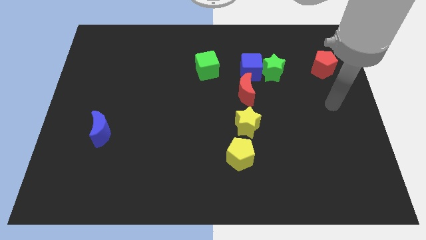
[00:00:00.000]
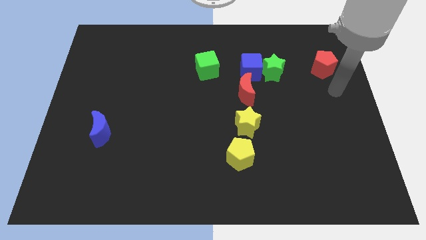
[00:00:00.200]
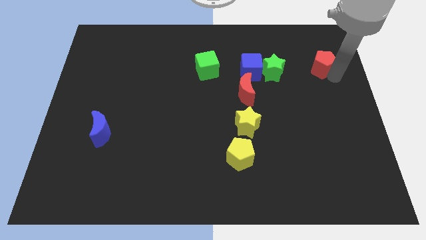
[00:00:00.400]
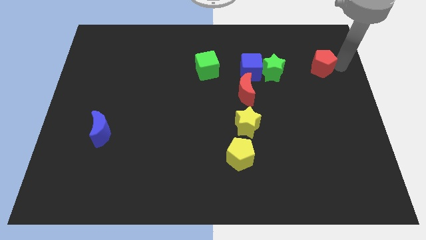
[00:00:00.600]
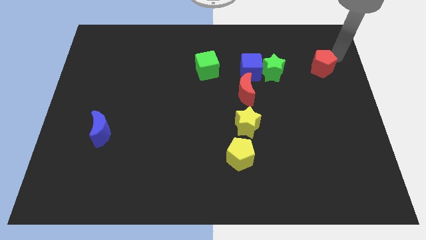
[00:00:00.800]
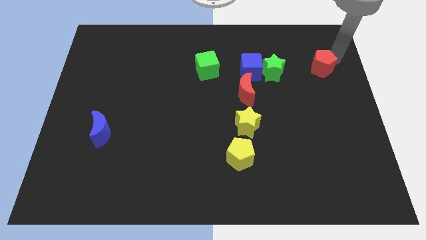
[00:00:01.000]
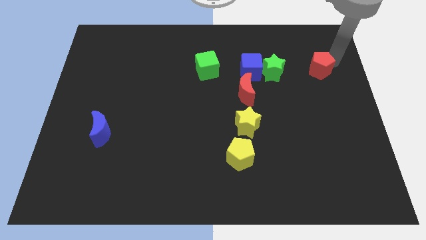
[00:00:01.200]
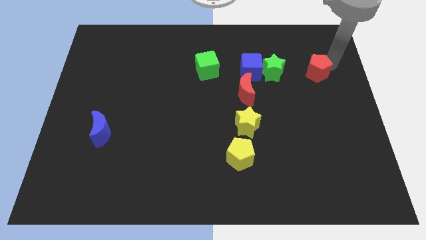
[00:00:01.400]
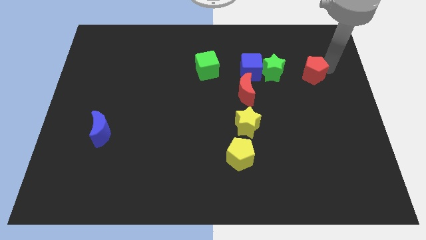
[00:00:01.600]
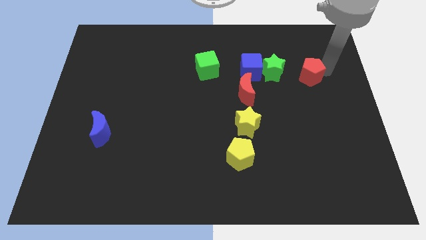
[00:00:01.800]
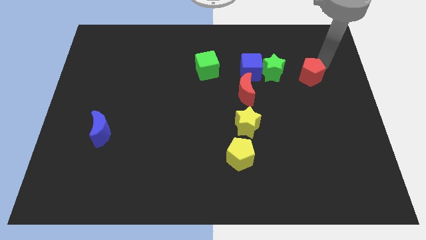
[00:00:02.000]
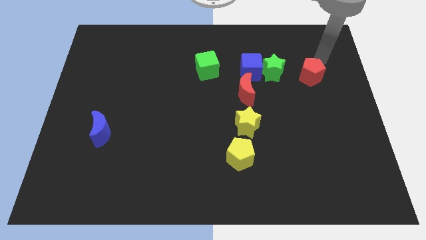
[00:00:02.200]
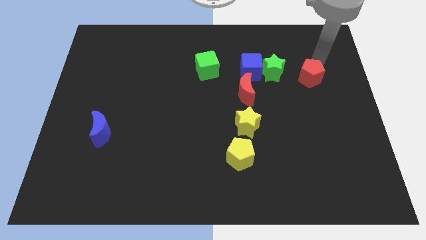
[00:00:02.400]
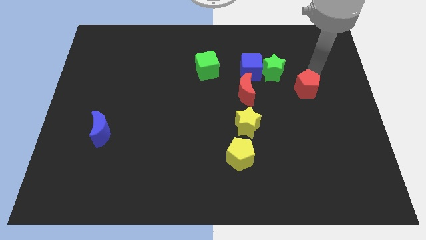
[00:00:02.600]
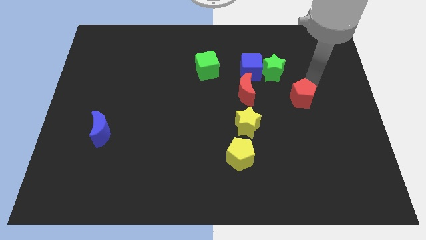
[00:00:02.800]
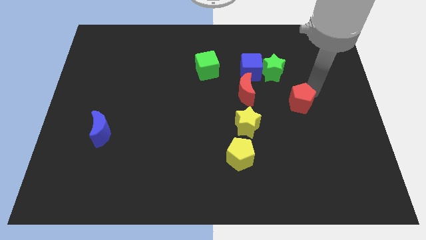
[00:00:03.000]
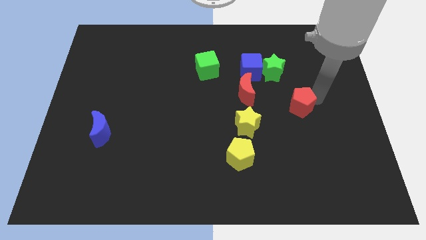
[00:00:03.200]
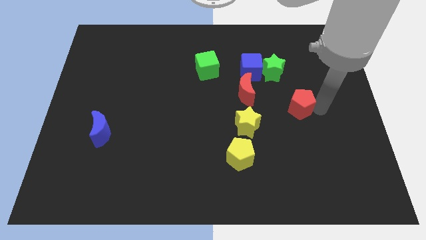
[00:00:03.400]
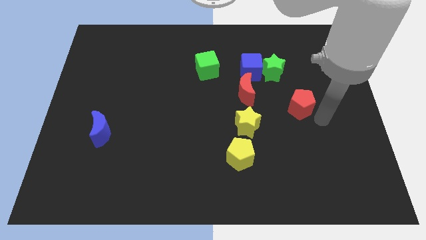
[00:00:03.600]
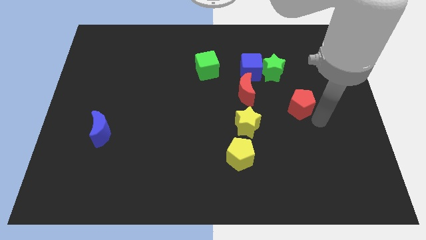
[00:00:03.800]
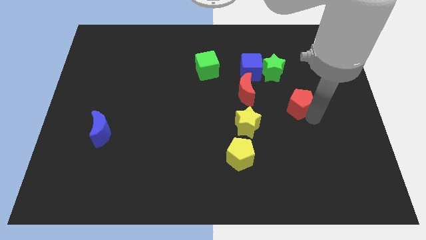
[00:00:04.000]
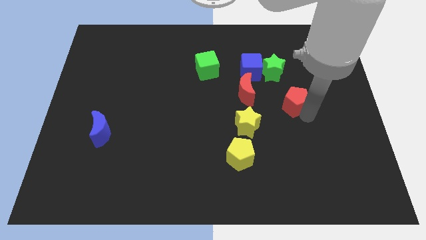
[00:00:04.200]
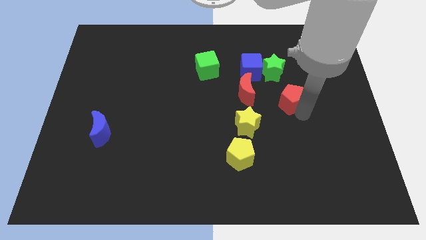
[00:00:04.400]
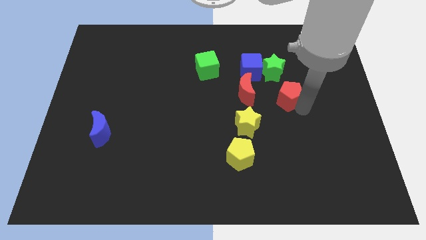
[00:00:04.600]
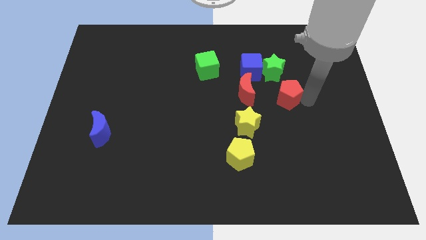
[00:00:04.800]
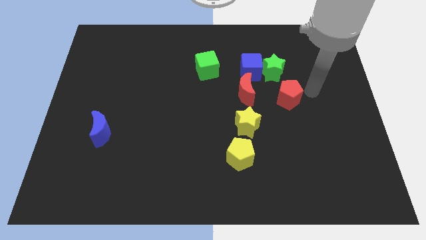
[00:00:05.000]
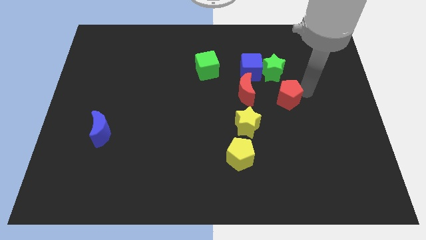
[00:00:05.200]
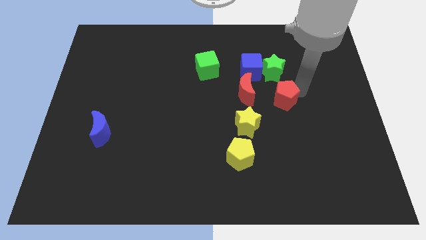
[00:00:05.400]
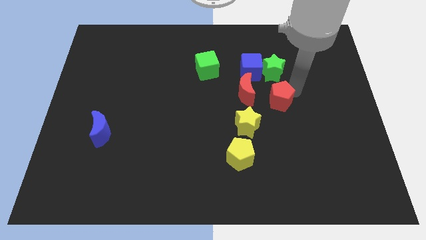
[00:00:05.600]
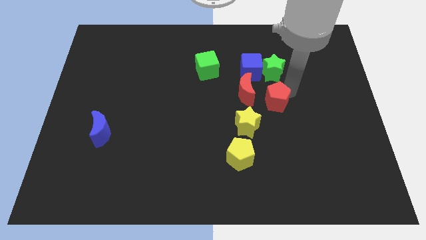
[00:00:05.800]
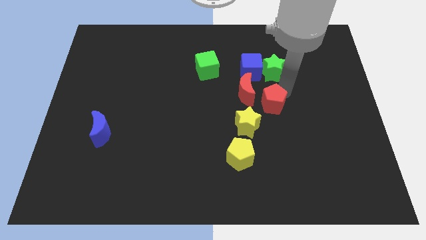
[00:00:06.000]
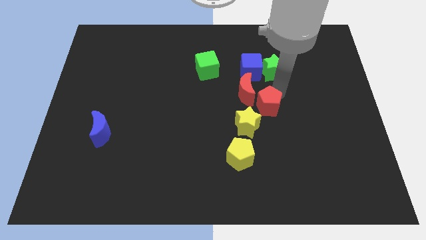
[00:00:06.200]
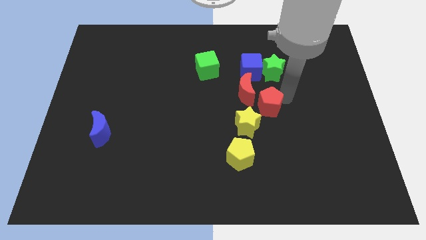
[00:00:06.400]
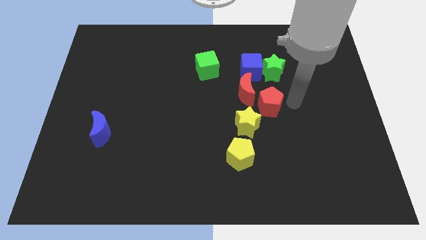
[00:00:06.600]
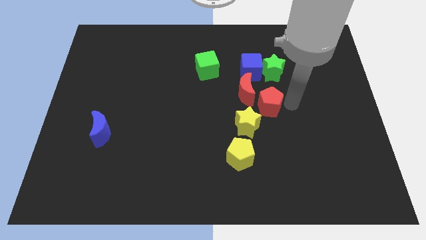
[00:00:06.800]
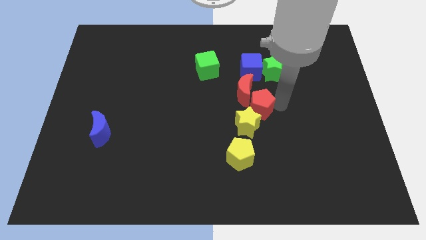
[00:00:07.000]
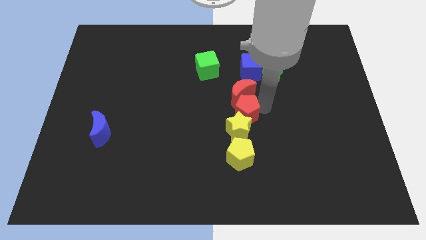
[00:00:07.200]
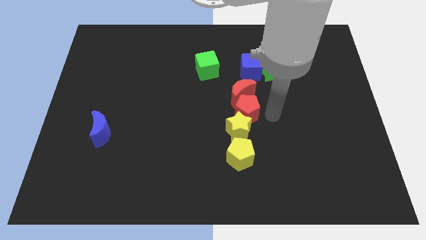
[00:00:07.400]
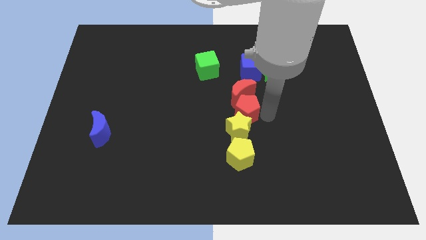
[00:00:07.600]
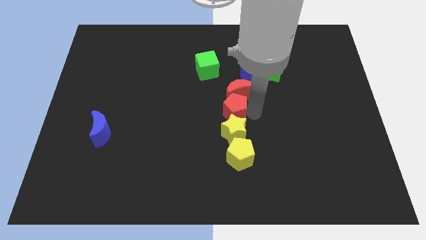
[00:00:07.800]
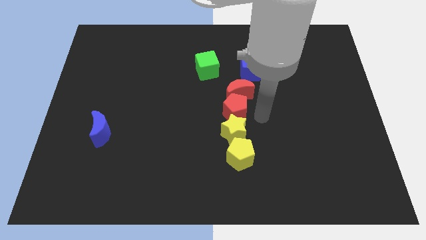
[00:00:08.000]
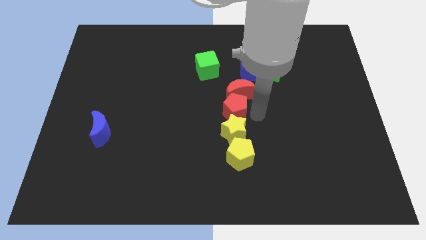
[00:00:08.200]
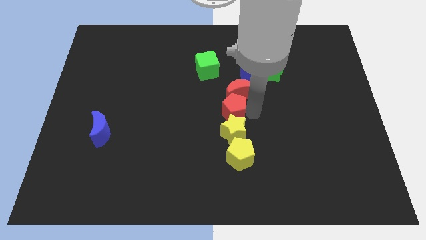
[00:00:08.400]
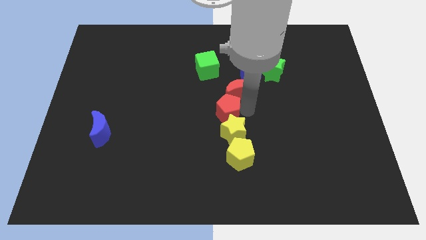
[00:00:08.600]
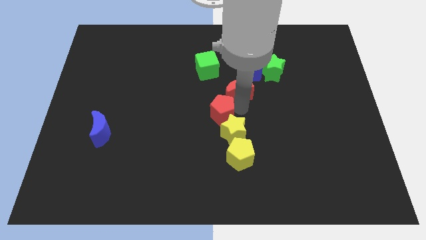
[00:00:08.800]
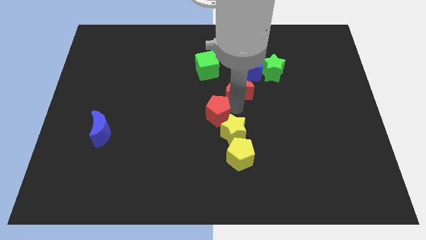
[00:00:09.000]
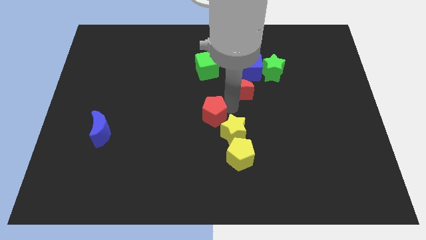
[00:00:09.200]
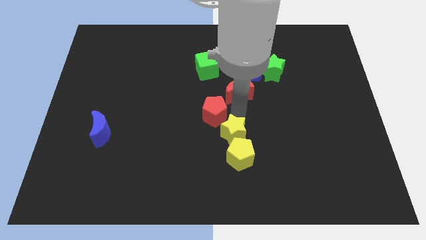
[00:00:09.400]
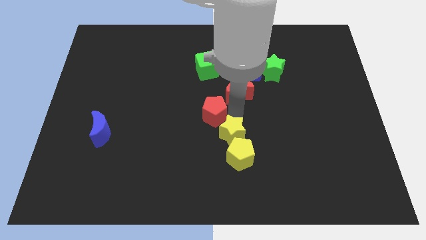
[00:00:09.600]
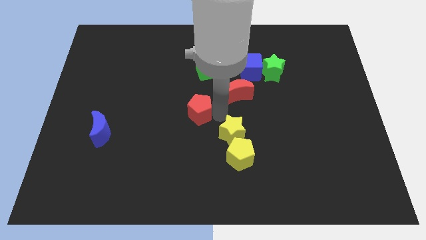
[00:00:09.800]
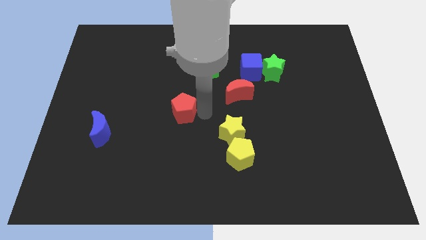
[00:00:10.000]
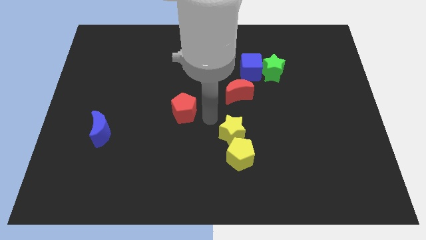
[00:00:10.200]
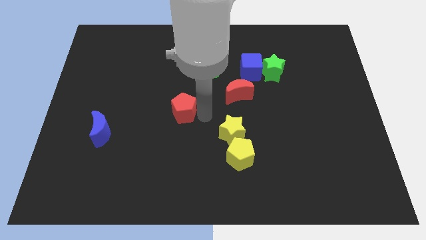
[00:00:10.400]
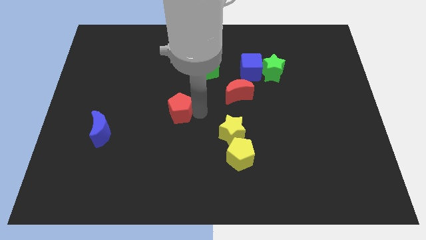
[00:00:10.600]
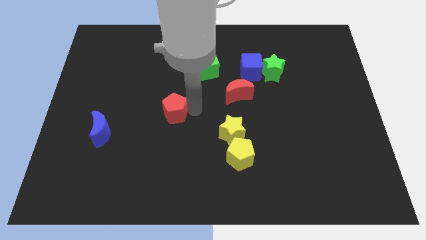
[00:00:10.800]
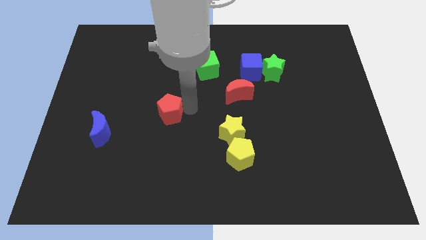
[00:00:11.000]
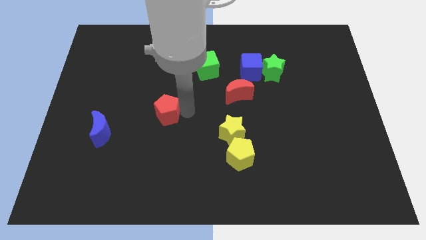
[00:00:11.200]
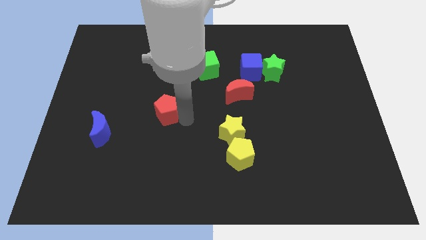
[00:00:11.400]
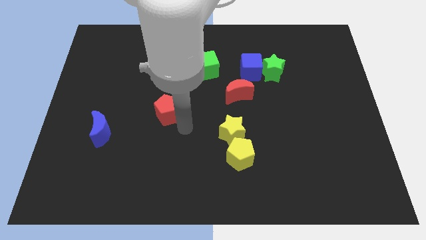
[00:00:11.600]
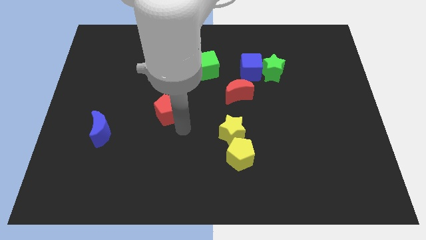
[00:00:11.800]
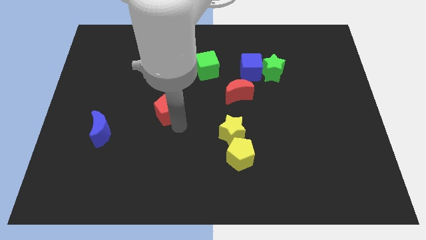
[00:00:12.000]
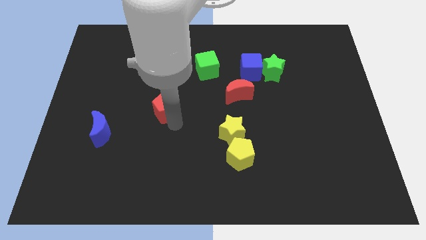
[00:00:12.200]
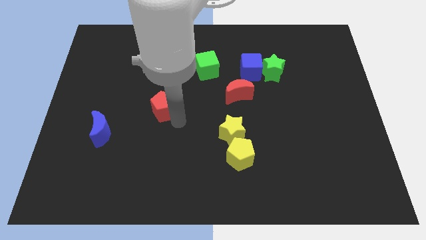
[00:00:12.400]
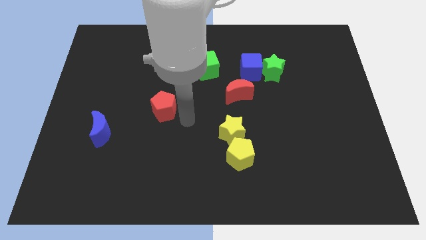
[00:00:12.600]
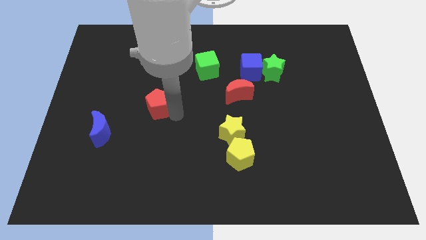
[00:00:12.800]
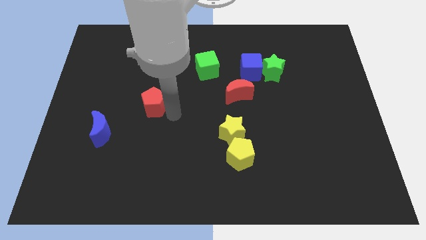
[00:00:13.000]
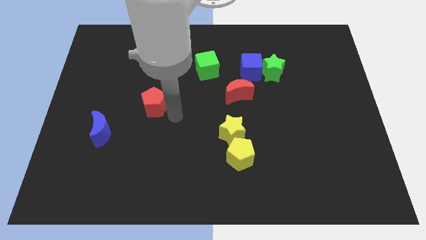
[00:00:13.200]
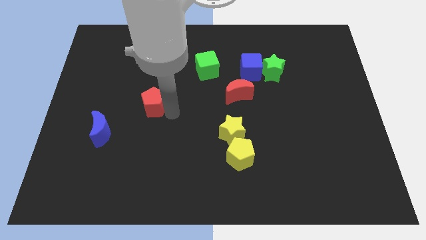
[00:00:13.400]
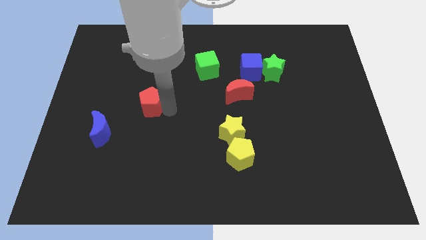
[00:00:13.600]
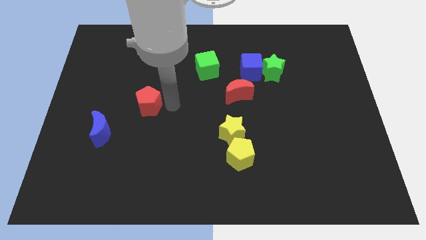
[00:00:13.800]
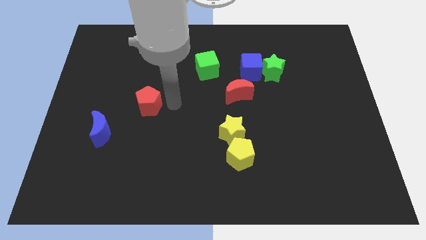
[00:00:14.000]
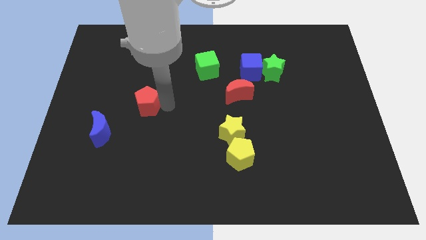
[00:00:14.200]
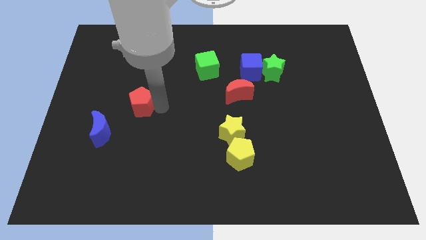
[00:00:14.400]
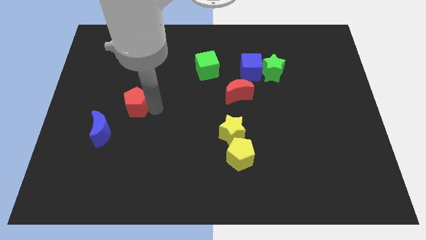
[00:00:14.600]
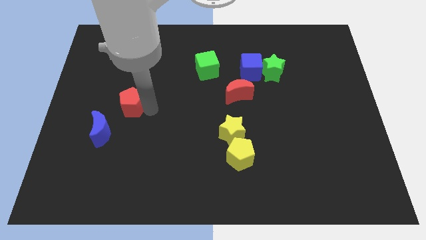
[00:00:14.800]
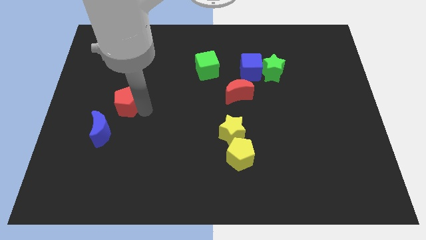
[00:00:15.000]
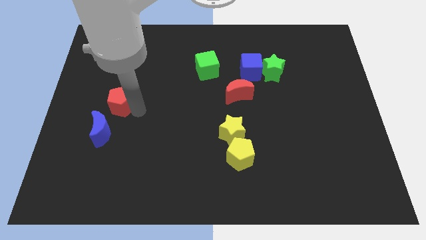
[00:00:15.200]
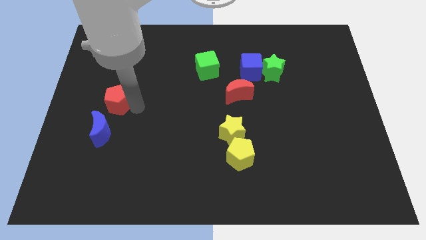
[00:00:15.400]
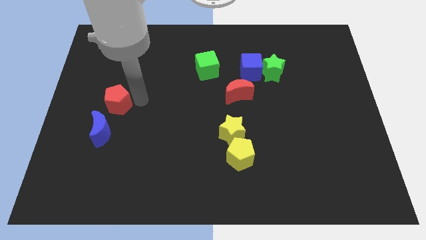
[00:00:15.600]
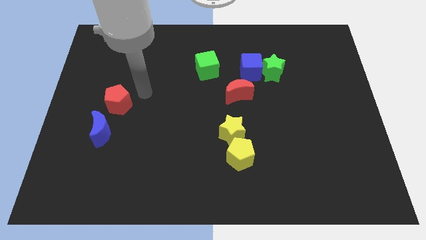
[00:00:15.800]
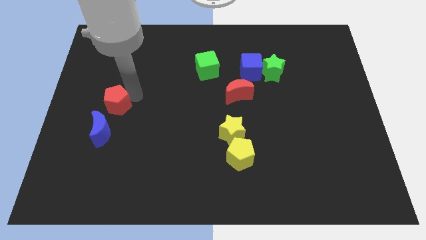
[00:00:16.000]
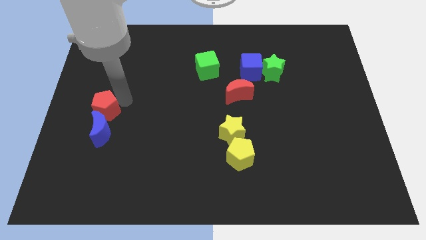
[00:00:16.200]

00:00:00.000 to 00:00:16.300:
move the red pentagon to the center left
